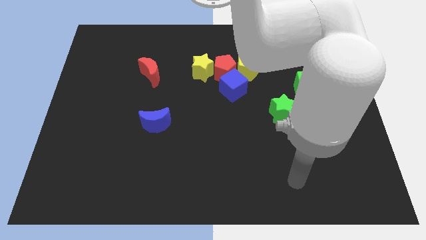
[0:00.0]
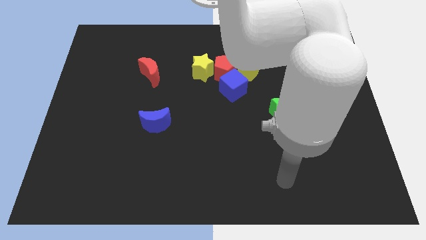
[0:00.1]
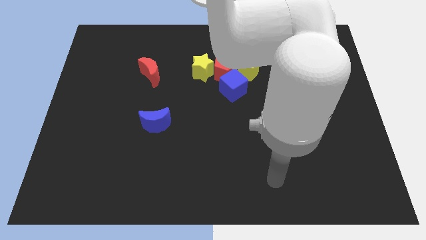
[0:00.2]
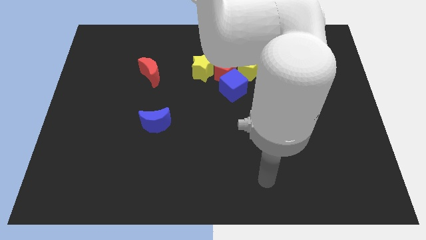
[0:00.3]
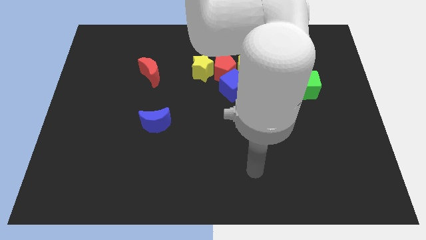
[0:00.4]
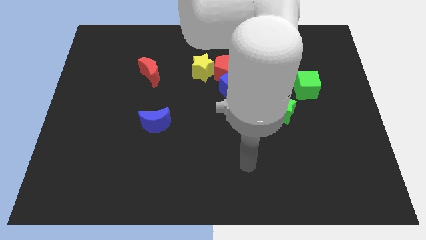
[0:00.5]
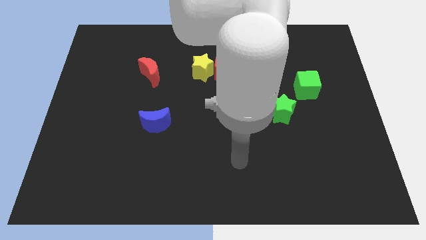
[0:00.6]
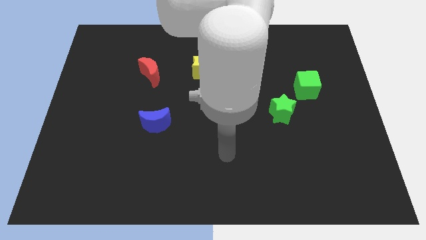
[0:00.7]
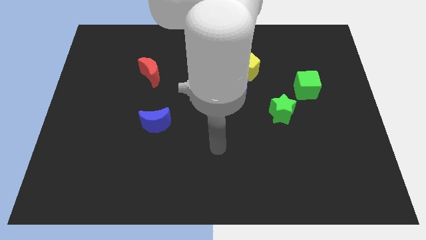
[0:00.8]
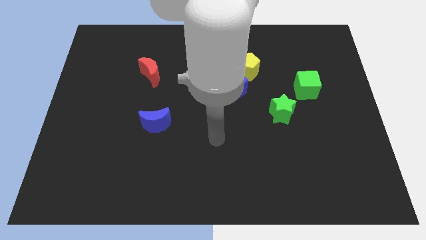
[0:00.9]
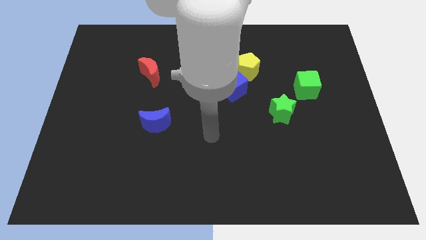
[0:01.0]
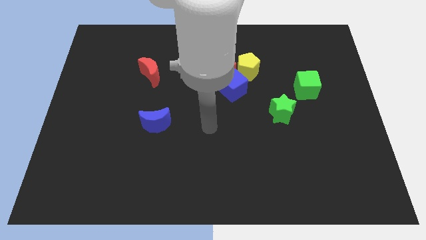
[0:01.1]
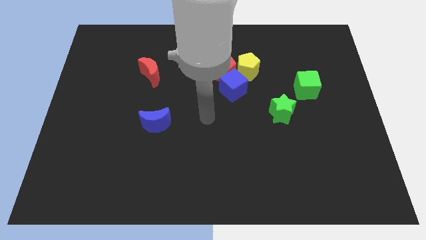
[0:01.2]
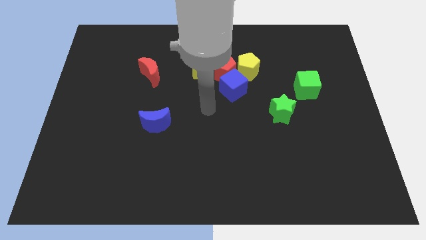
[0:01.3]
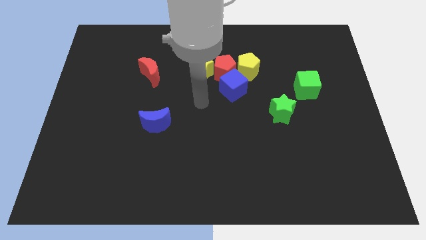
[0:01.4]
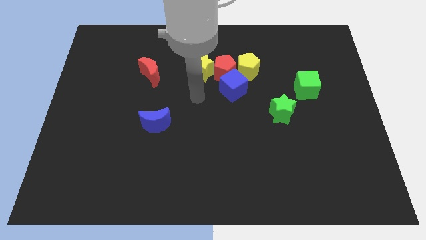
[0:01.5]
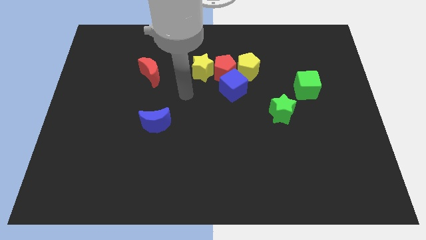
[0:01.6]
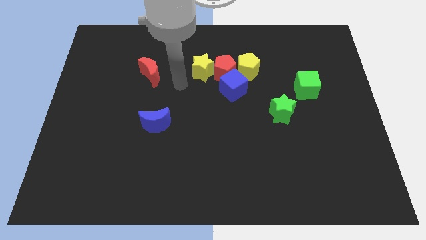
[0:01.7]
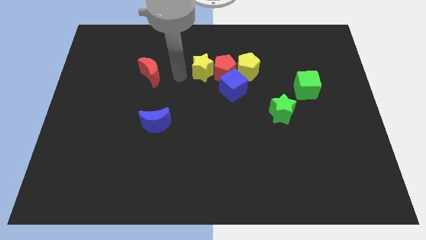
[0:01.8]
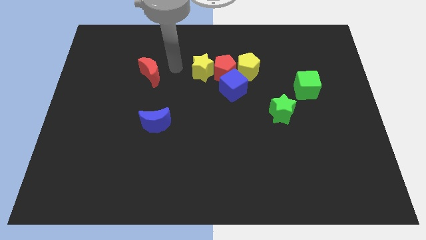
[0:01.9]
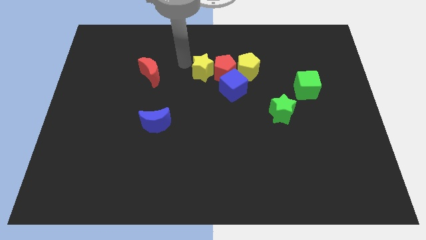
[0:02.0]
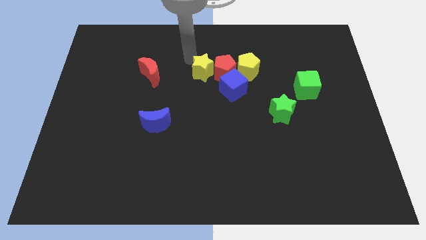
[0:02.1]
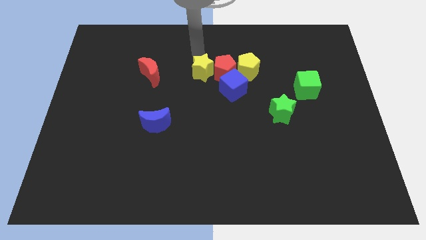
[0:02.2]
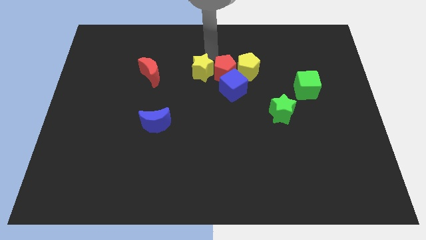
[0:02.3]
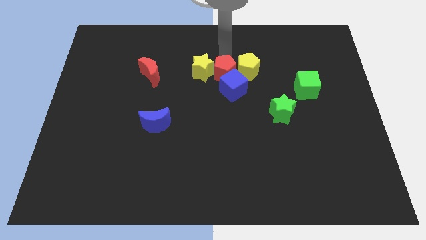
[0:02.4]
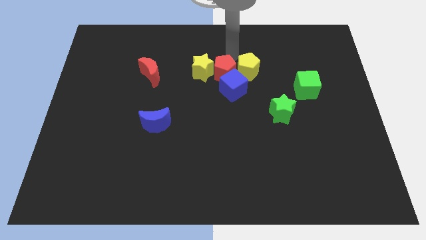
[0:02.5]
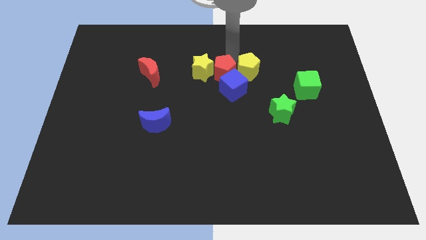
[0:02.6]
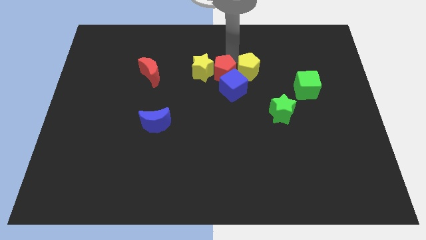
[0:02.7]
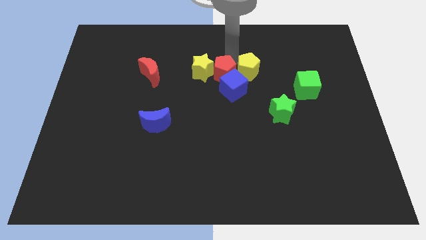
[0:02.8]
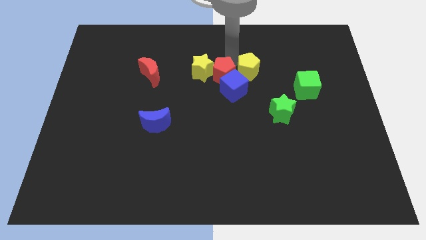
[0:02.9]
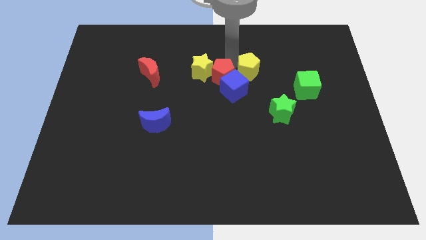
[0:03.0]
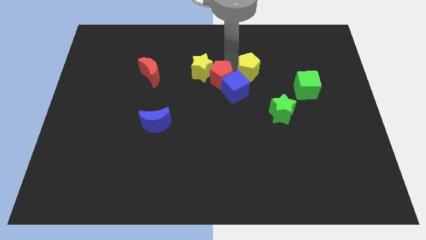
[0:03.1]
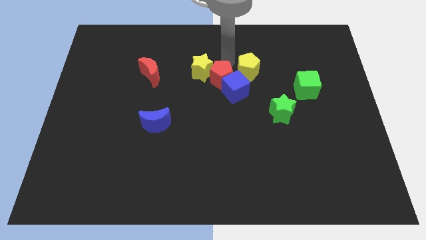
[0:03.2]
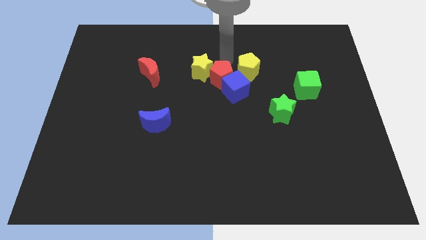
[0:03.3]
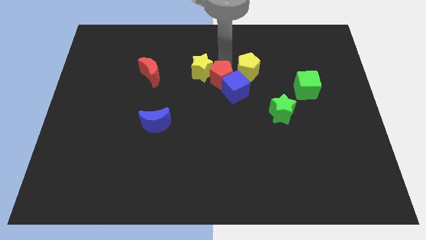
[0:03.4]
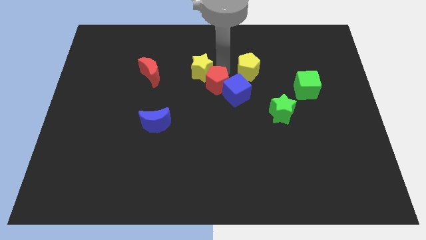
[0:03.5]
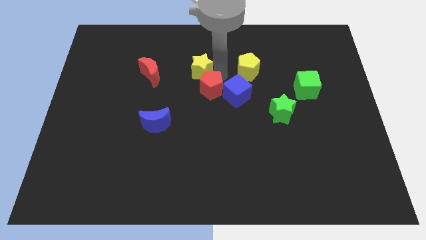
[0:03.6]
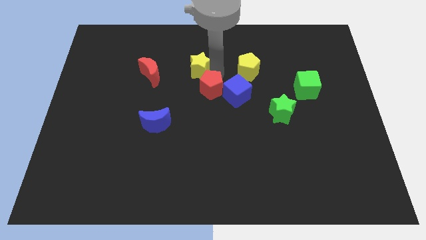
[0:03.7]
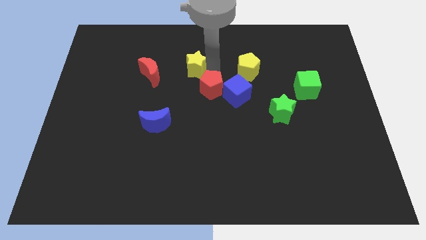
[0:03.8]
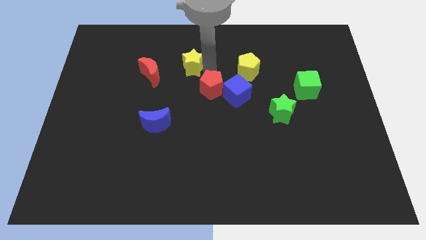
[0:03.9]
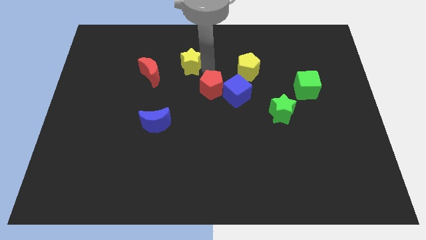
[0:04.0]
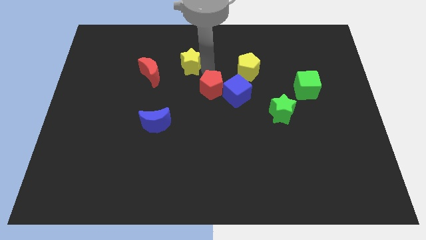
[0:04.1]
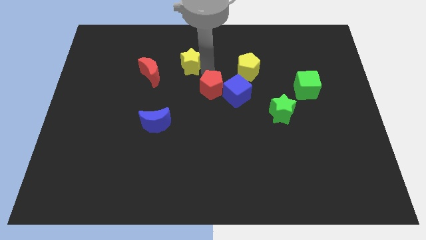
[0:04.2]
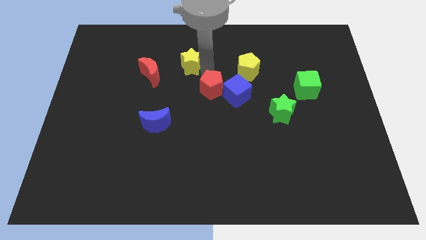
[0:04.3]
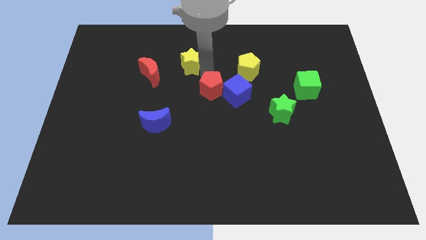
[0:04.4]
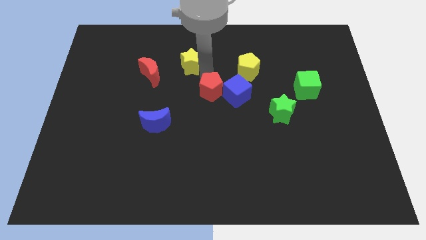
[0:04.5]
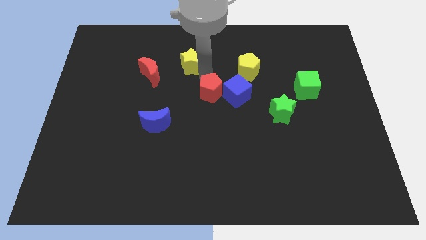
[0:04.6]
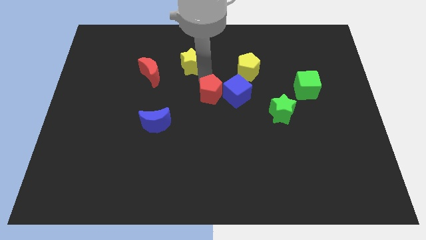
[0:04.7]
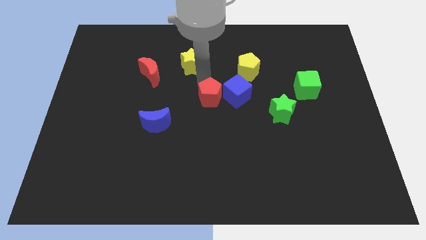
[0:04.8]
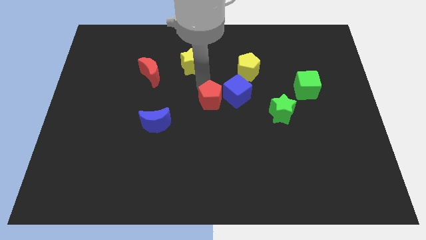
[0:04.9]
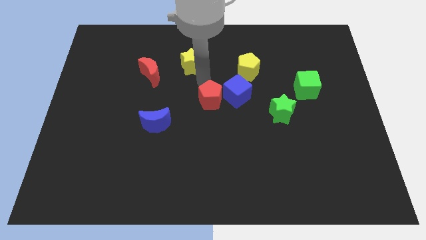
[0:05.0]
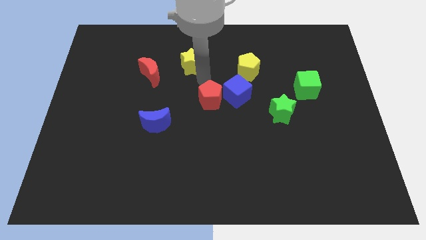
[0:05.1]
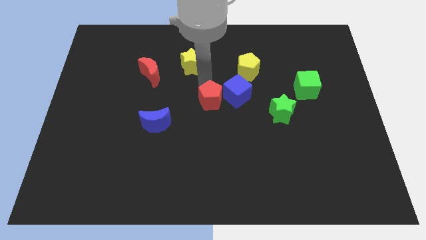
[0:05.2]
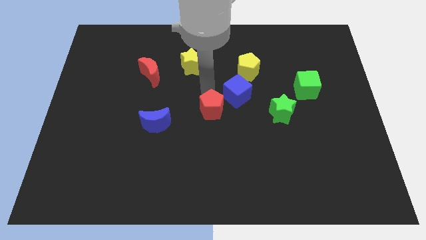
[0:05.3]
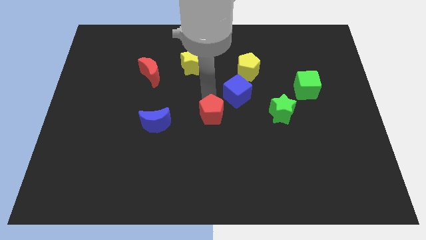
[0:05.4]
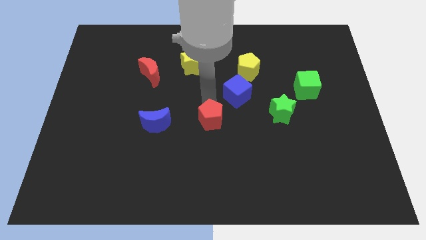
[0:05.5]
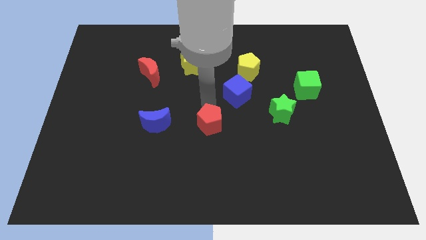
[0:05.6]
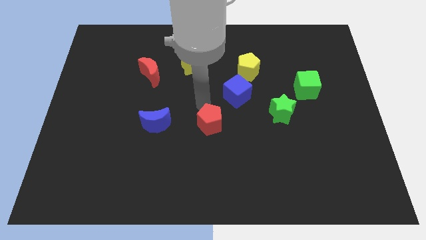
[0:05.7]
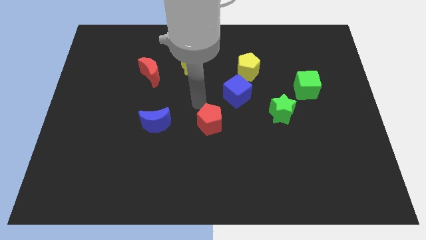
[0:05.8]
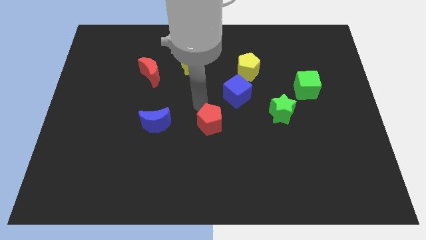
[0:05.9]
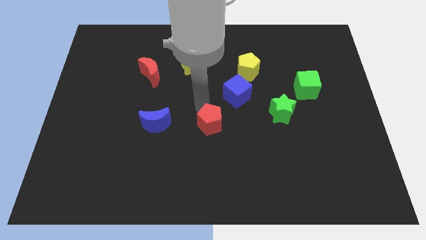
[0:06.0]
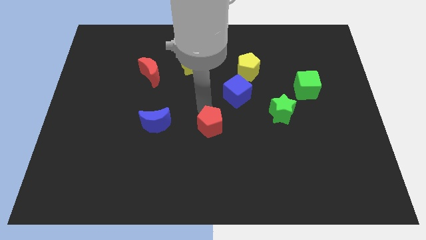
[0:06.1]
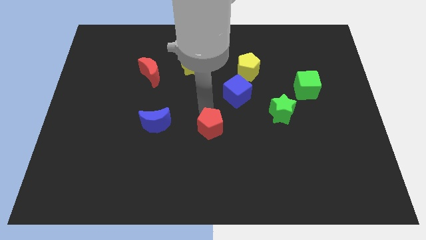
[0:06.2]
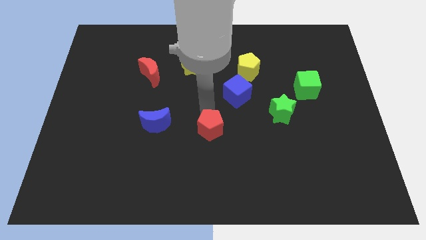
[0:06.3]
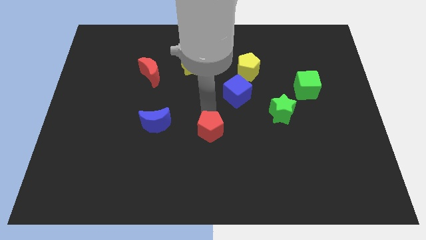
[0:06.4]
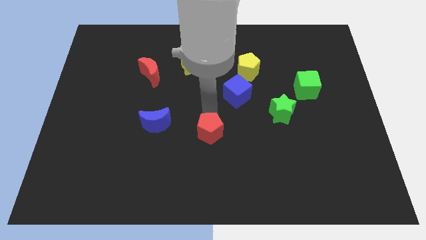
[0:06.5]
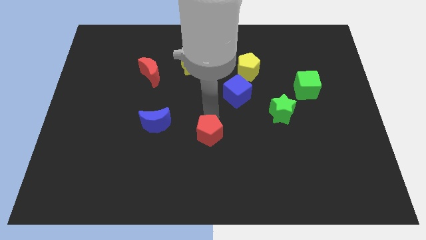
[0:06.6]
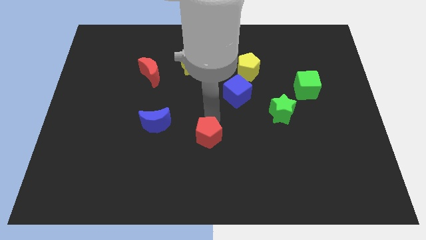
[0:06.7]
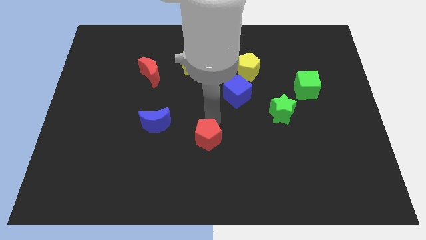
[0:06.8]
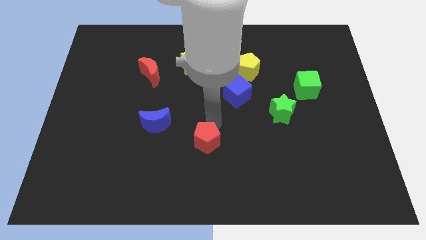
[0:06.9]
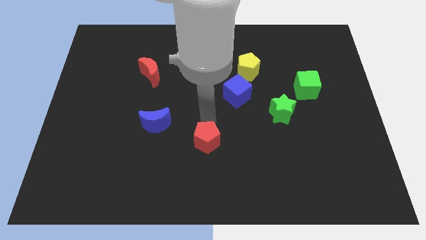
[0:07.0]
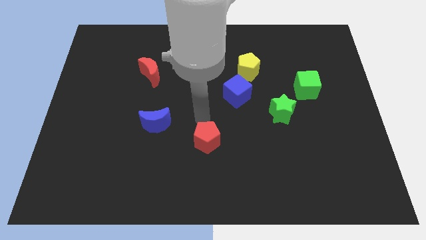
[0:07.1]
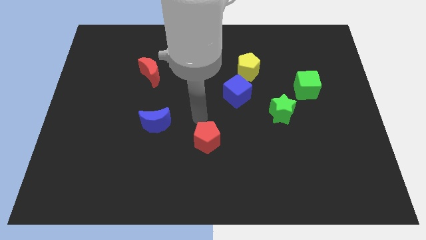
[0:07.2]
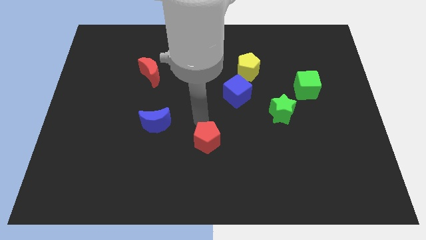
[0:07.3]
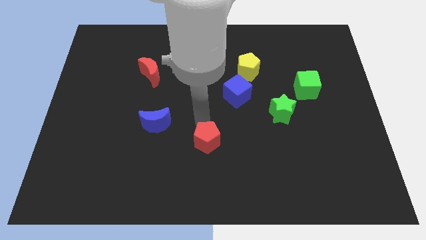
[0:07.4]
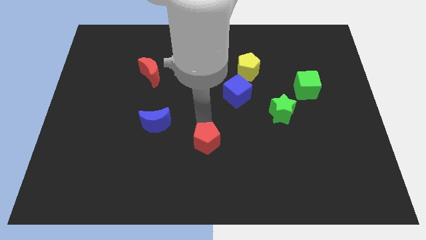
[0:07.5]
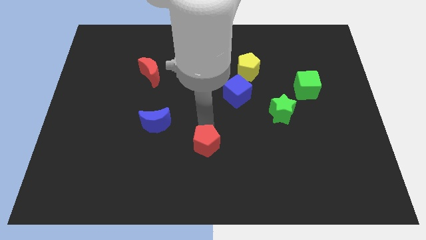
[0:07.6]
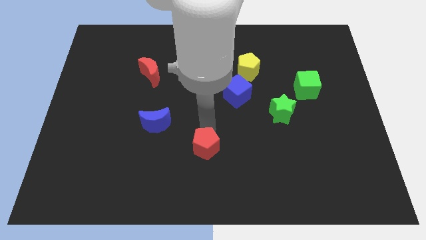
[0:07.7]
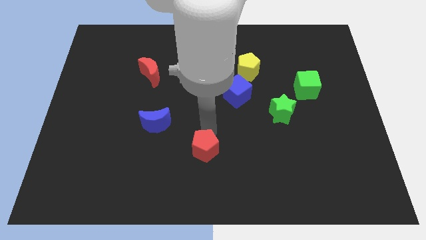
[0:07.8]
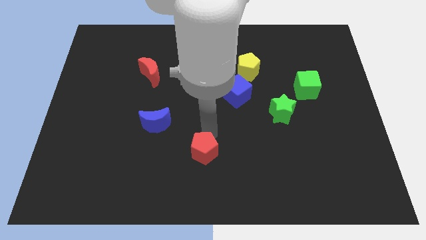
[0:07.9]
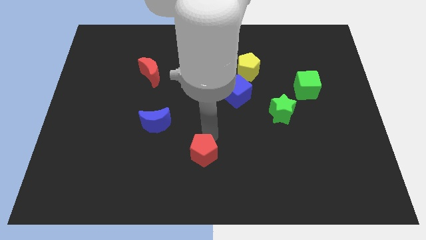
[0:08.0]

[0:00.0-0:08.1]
slide the red pentagon to the bottom
